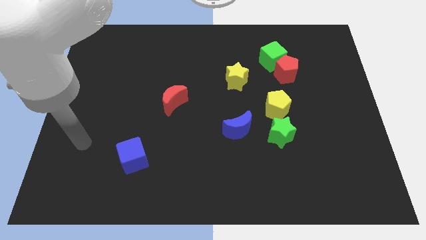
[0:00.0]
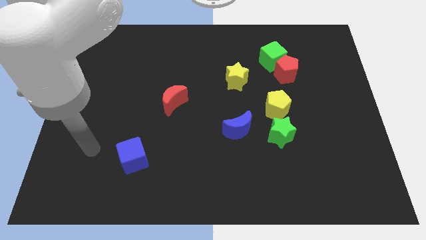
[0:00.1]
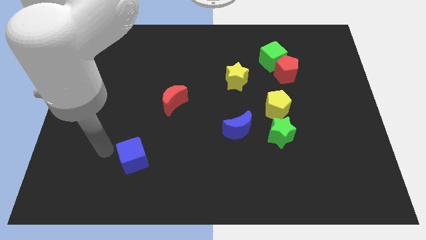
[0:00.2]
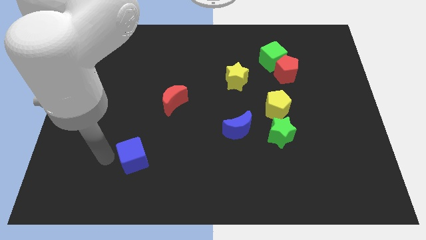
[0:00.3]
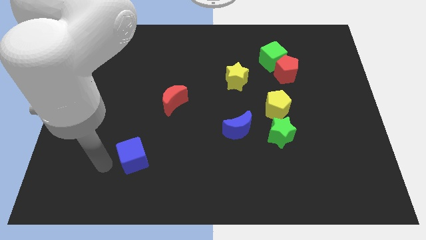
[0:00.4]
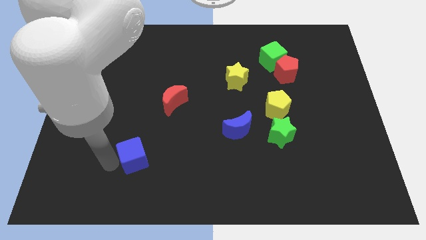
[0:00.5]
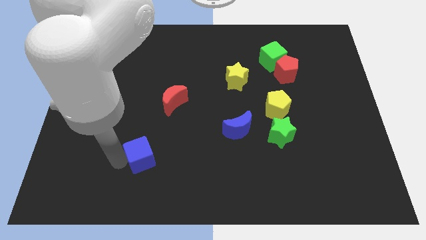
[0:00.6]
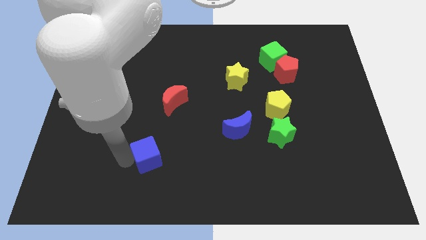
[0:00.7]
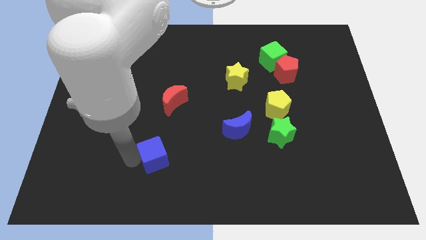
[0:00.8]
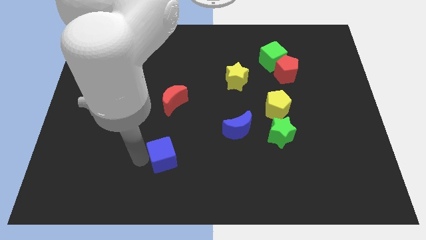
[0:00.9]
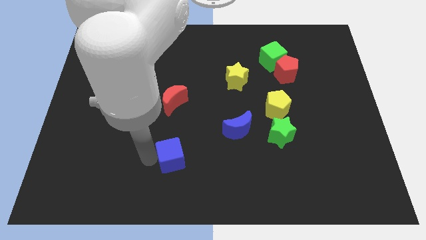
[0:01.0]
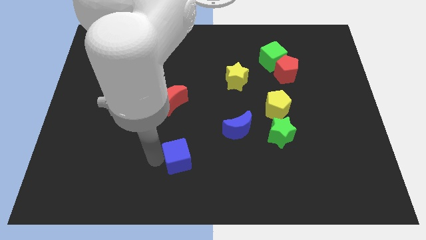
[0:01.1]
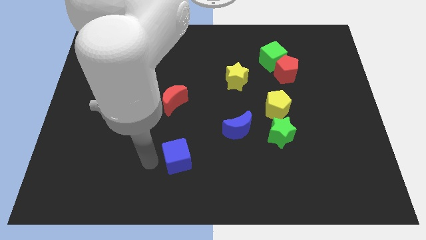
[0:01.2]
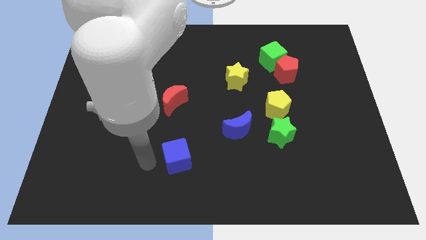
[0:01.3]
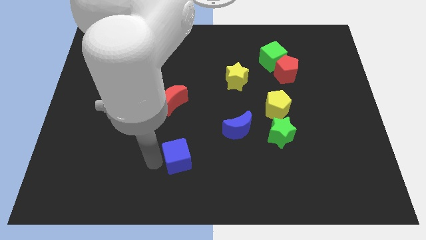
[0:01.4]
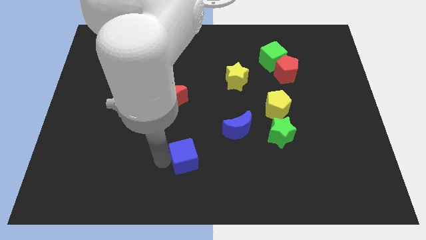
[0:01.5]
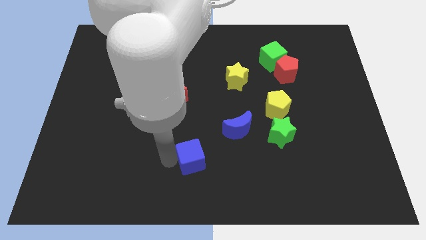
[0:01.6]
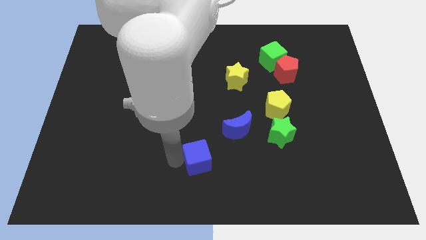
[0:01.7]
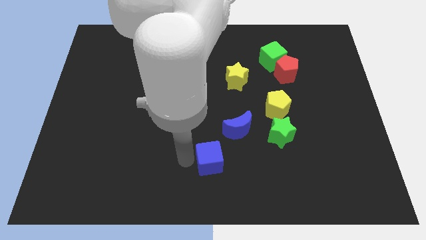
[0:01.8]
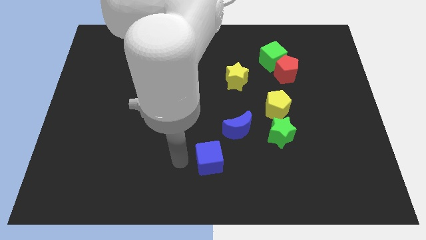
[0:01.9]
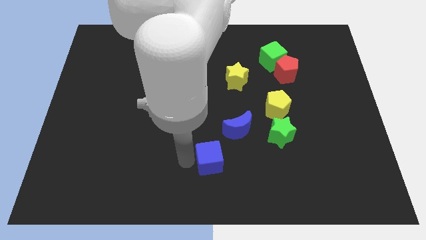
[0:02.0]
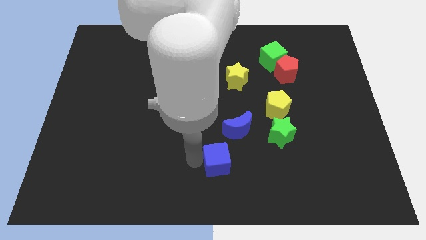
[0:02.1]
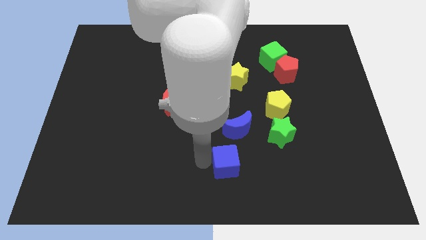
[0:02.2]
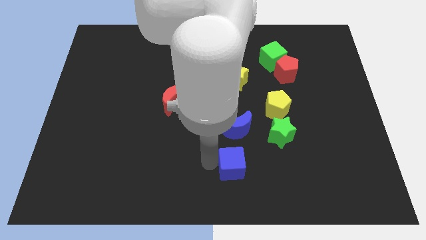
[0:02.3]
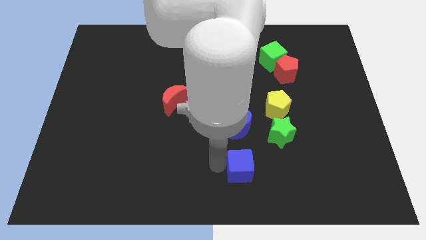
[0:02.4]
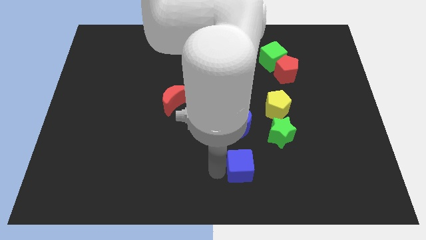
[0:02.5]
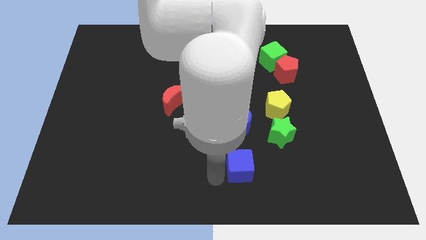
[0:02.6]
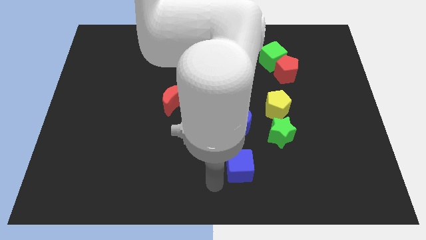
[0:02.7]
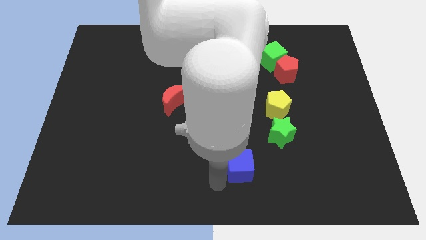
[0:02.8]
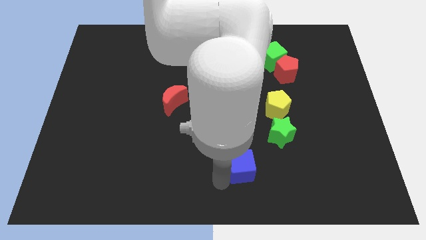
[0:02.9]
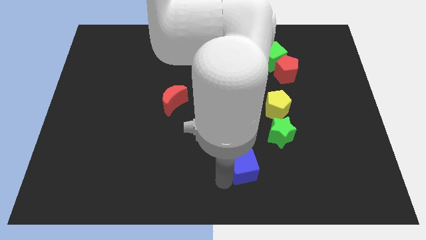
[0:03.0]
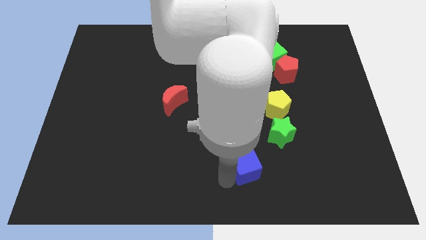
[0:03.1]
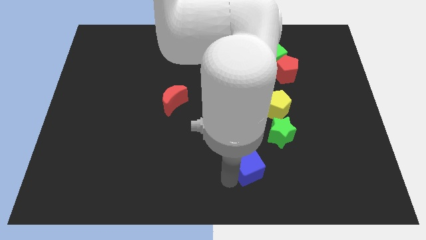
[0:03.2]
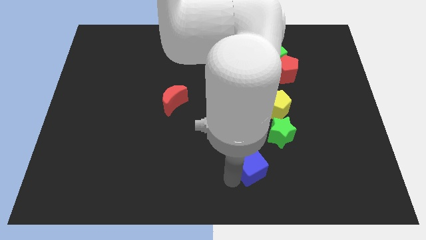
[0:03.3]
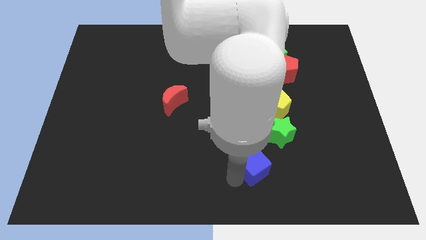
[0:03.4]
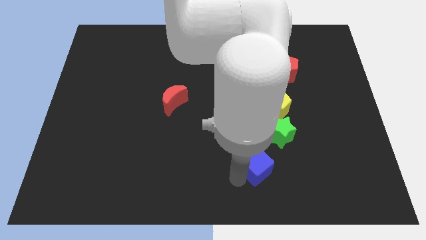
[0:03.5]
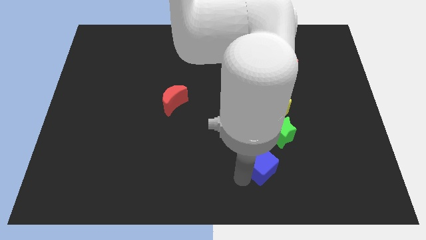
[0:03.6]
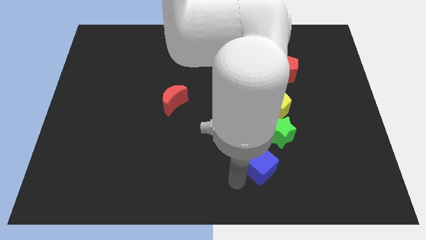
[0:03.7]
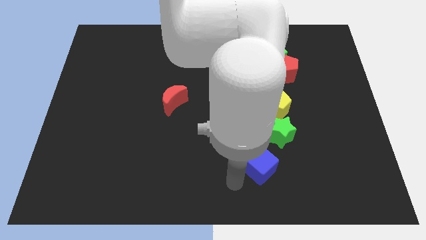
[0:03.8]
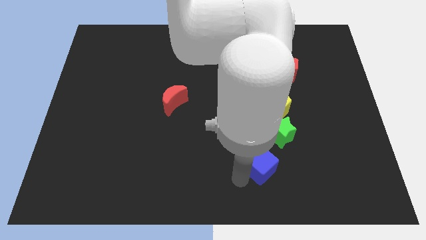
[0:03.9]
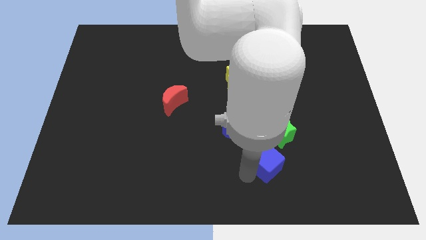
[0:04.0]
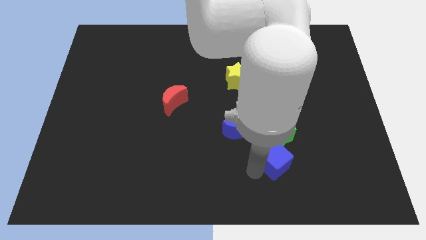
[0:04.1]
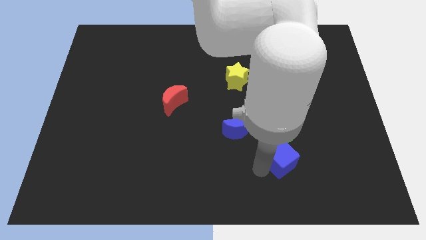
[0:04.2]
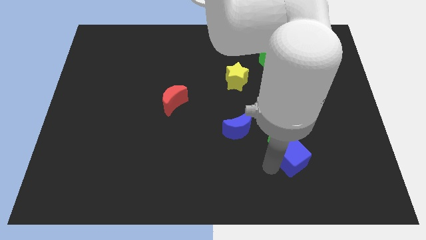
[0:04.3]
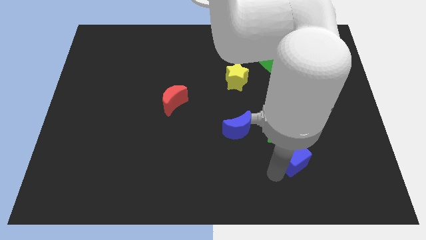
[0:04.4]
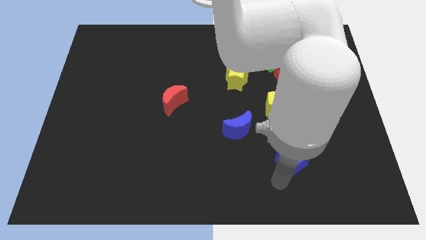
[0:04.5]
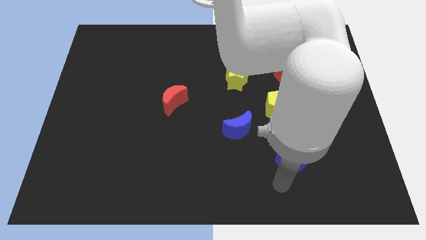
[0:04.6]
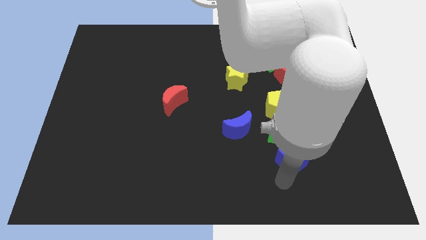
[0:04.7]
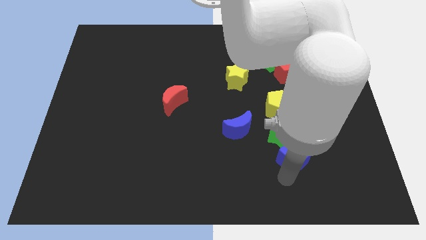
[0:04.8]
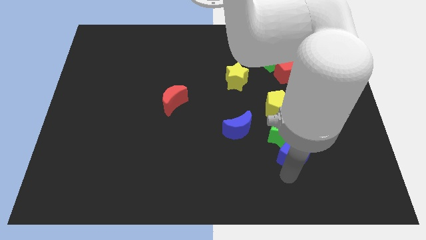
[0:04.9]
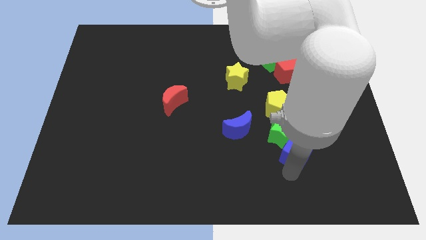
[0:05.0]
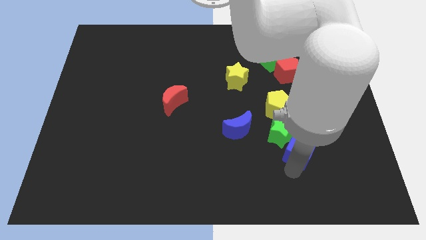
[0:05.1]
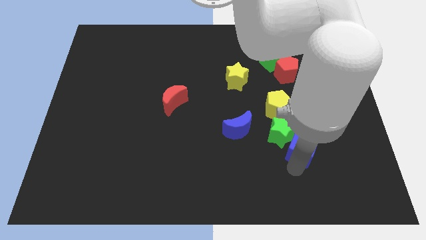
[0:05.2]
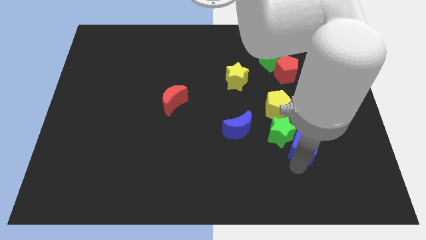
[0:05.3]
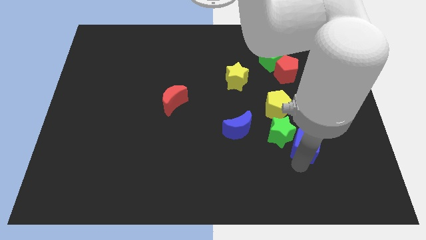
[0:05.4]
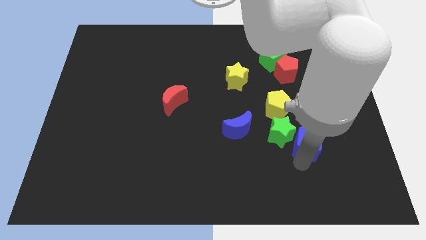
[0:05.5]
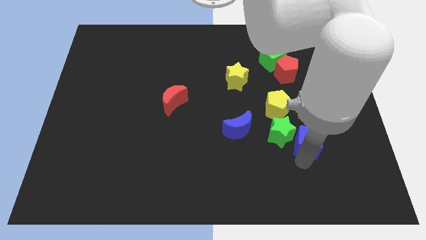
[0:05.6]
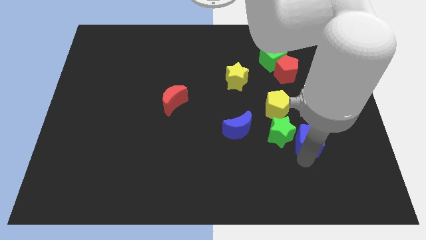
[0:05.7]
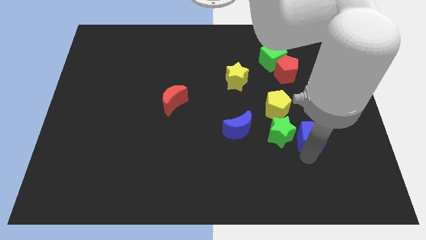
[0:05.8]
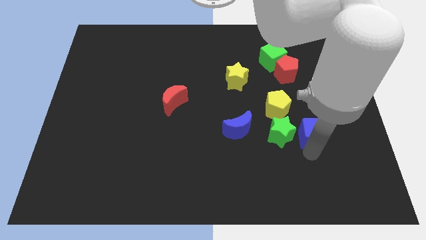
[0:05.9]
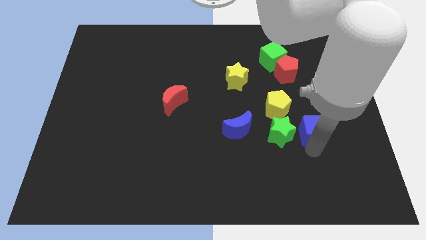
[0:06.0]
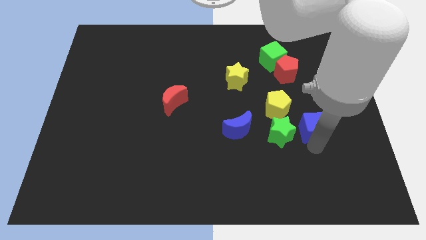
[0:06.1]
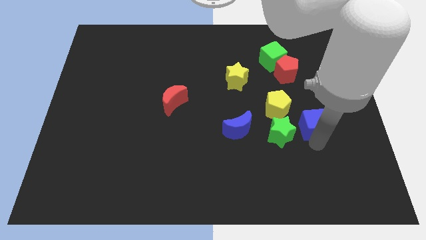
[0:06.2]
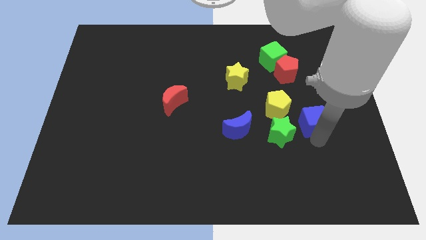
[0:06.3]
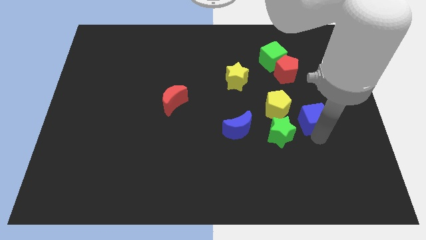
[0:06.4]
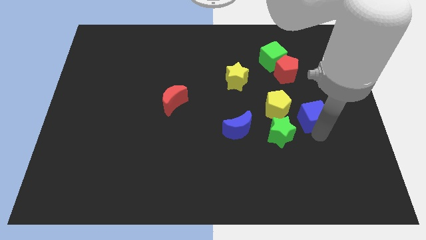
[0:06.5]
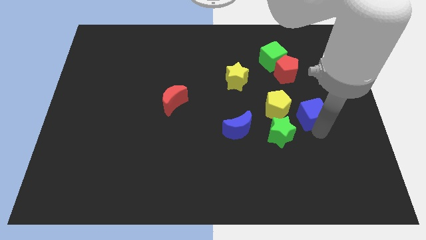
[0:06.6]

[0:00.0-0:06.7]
put the blue cube to the bottom side of the red pentagon

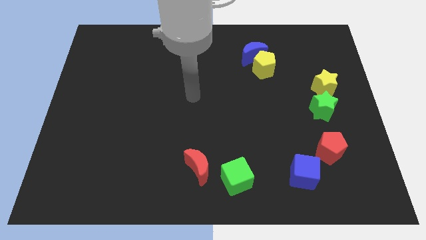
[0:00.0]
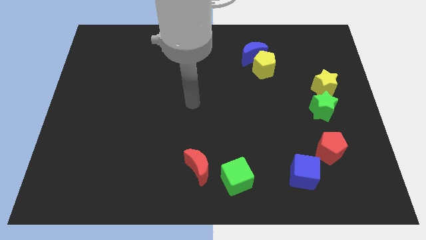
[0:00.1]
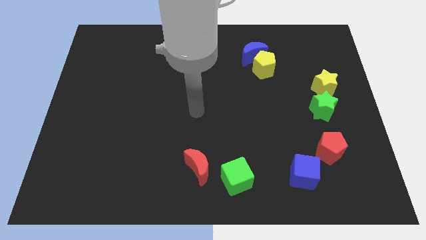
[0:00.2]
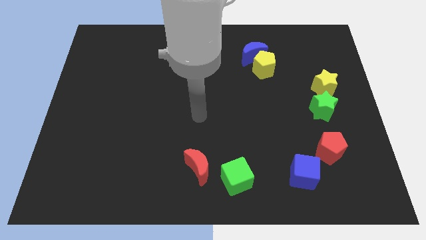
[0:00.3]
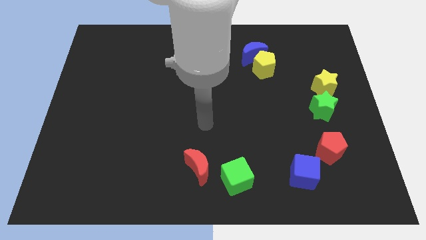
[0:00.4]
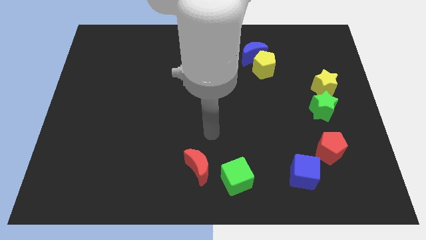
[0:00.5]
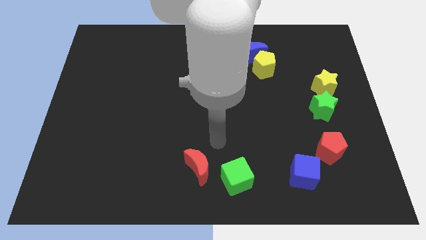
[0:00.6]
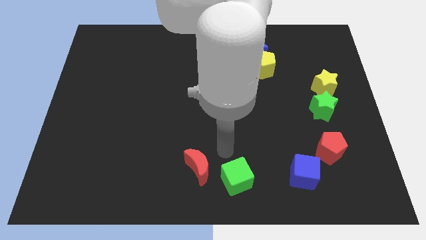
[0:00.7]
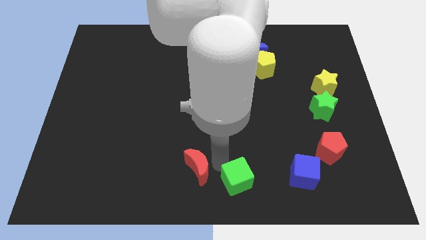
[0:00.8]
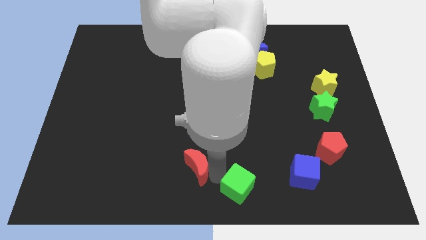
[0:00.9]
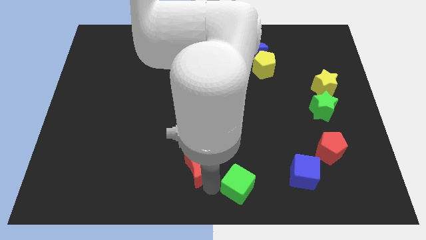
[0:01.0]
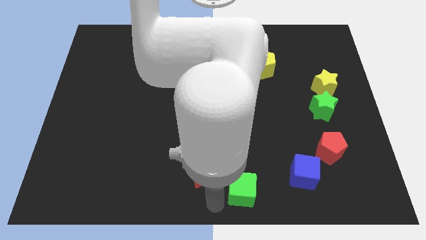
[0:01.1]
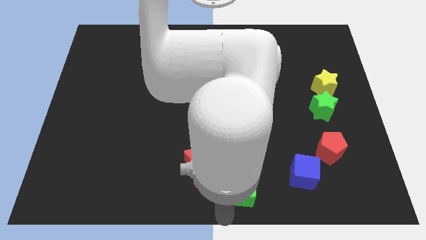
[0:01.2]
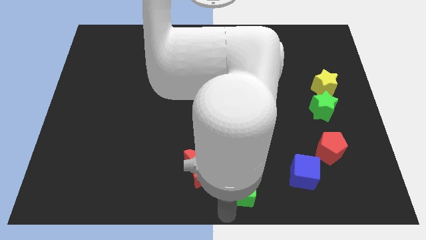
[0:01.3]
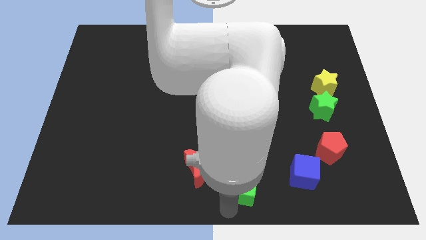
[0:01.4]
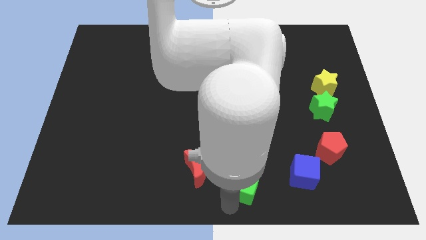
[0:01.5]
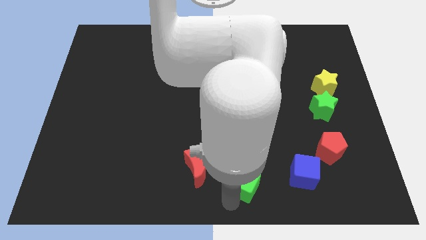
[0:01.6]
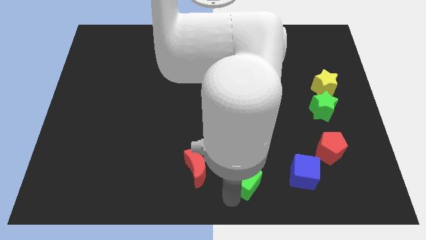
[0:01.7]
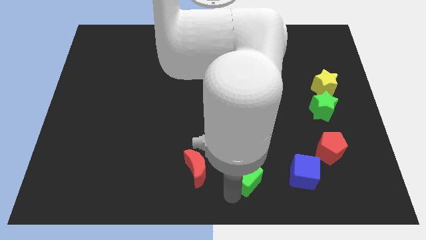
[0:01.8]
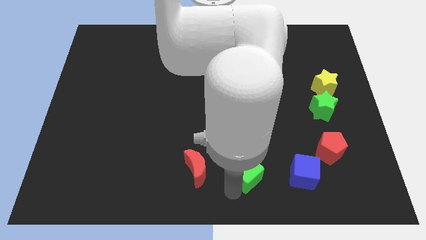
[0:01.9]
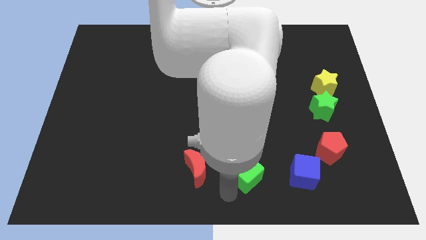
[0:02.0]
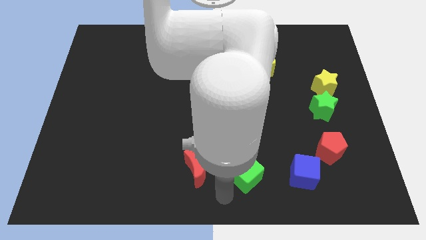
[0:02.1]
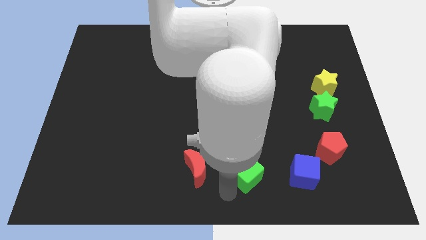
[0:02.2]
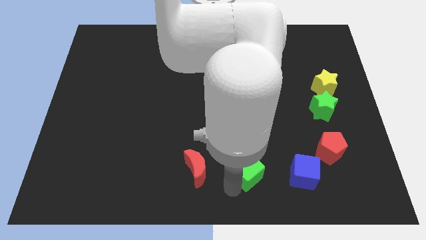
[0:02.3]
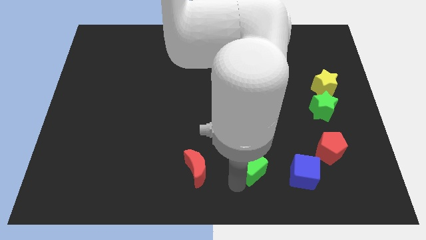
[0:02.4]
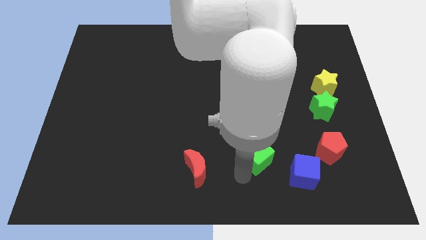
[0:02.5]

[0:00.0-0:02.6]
push the green cube to the left side of the red pentagon
